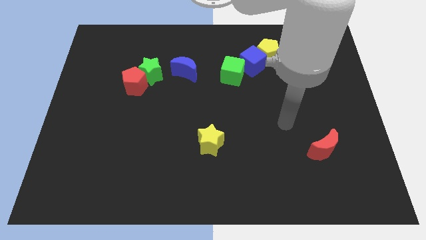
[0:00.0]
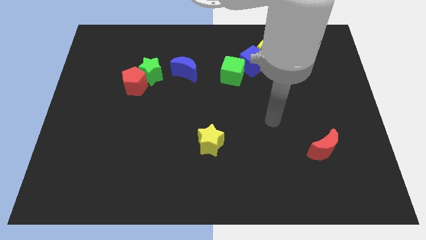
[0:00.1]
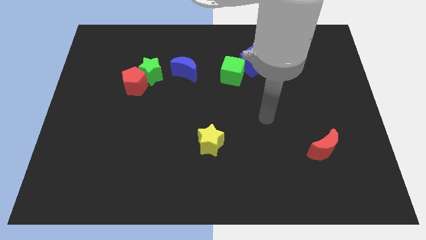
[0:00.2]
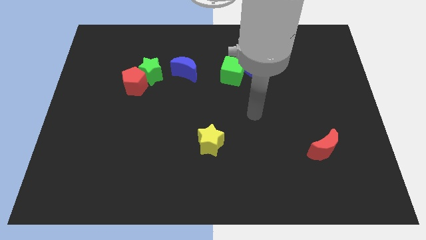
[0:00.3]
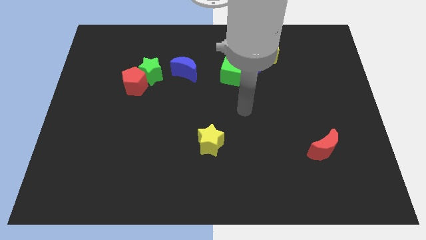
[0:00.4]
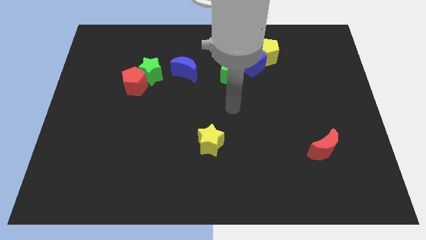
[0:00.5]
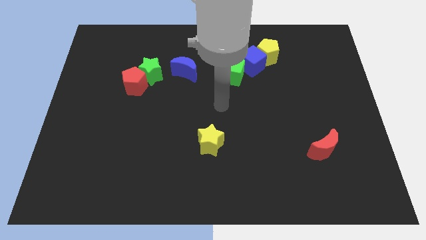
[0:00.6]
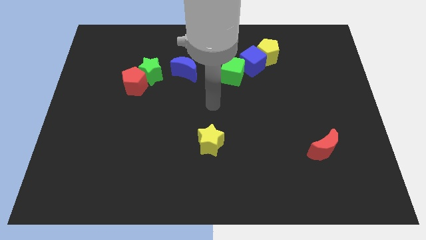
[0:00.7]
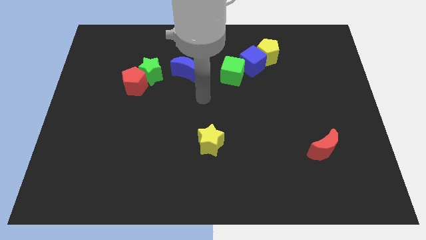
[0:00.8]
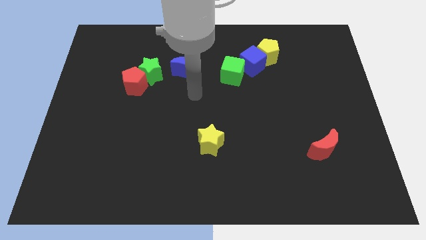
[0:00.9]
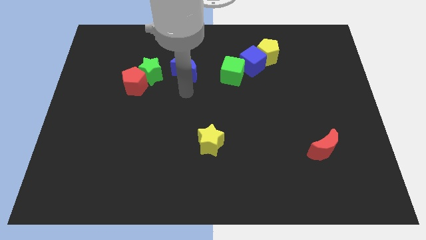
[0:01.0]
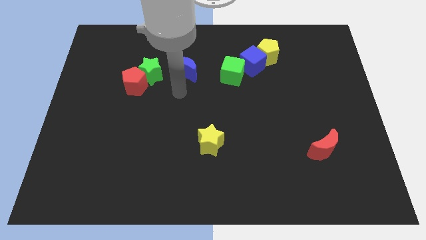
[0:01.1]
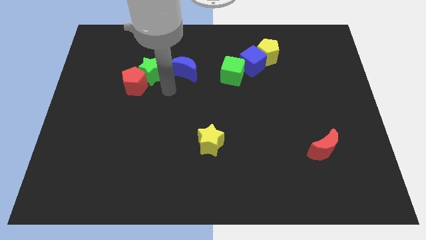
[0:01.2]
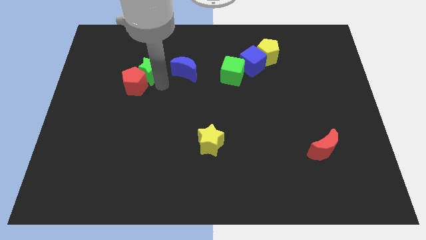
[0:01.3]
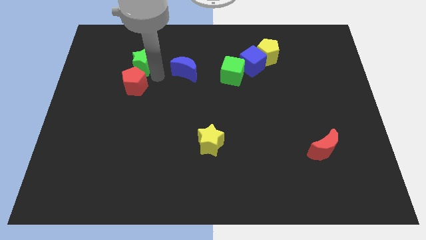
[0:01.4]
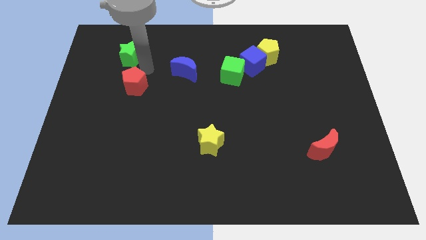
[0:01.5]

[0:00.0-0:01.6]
move the red pentagon away from the green star

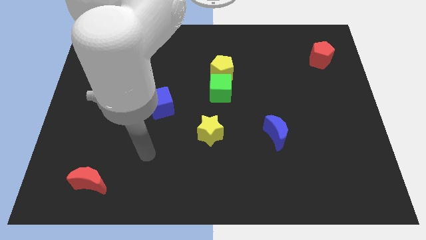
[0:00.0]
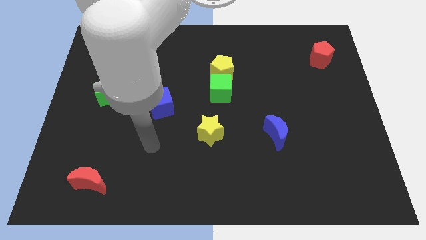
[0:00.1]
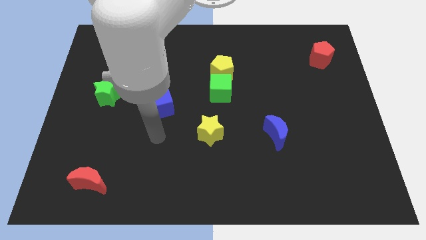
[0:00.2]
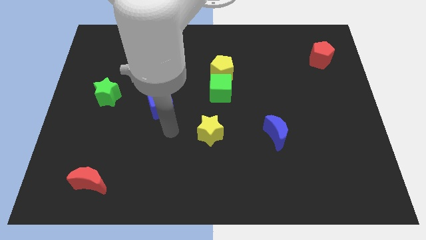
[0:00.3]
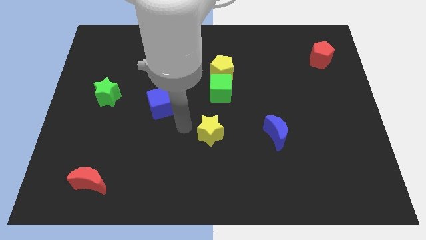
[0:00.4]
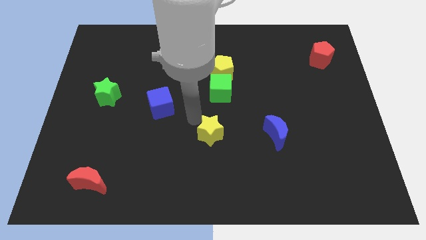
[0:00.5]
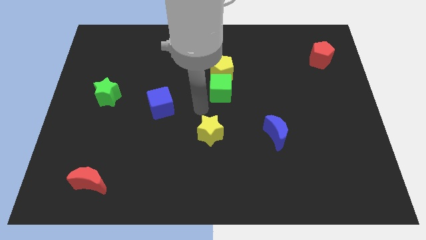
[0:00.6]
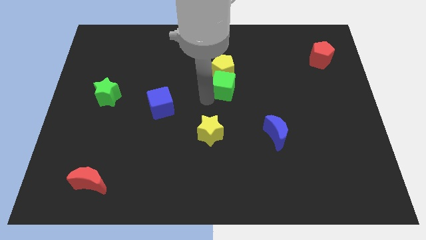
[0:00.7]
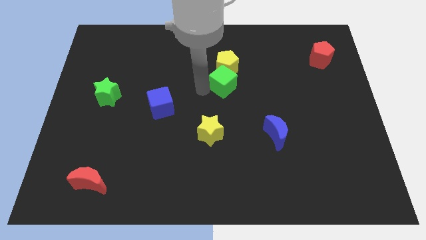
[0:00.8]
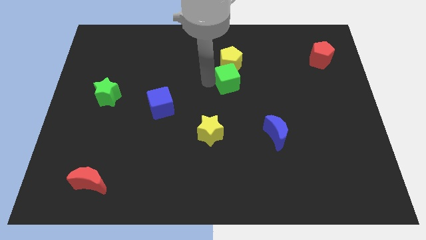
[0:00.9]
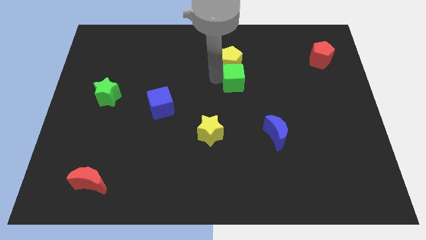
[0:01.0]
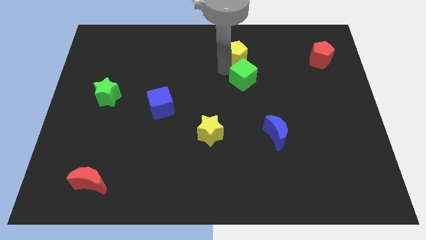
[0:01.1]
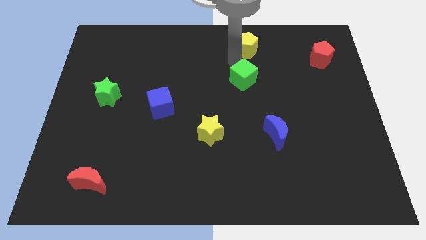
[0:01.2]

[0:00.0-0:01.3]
pull the green cube apart from the yellow pentagon

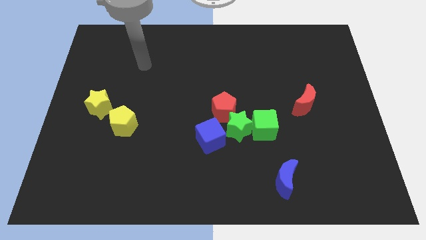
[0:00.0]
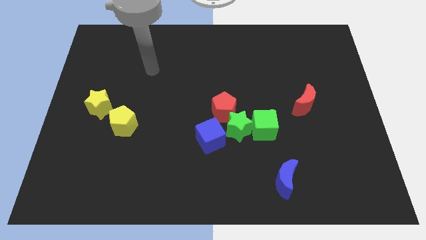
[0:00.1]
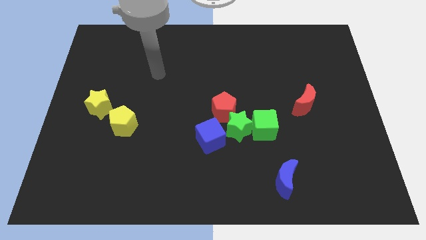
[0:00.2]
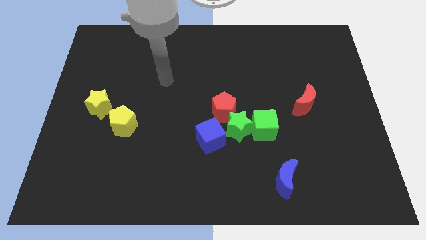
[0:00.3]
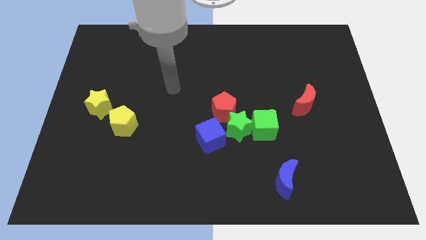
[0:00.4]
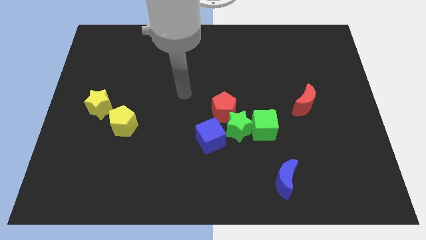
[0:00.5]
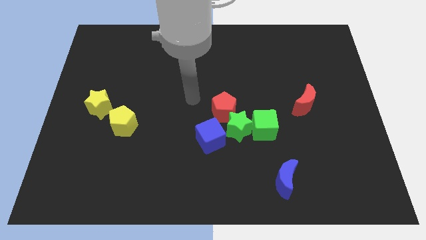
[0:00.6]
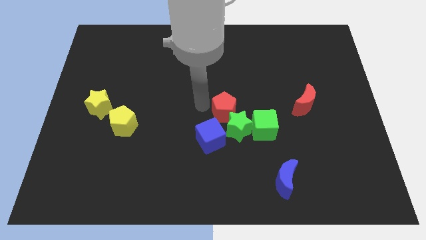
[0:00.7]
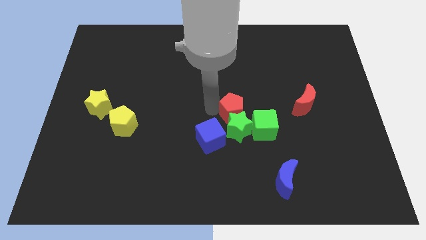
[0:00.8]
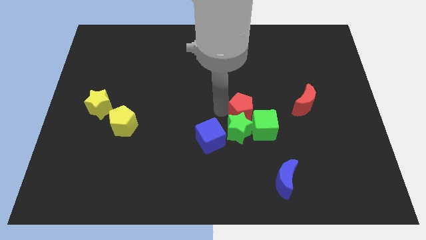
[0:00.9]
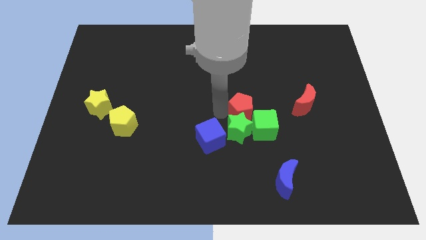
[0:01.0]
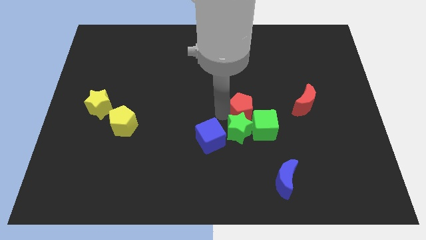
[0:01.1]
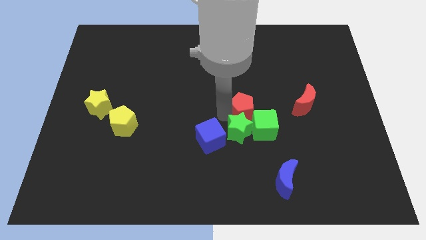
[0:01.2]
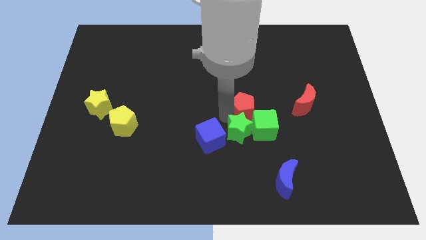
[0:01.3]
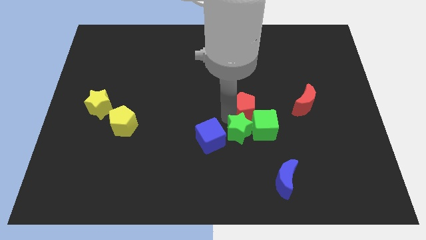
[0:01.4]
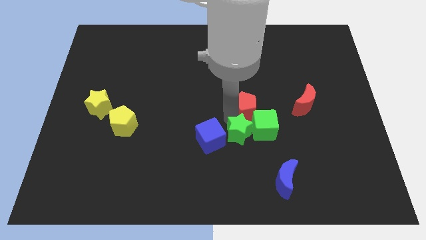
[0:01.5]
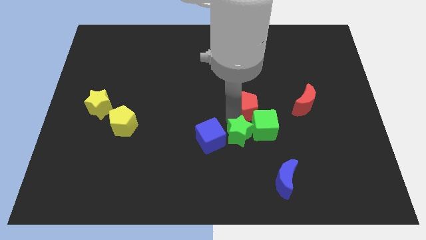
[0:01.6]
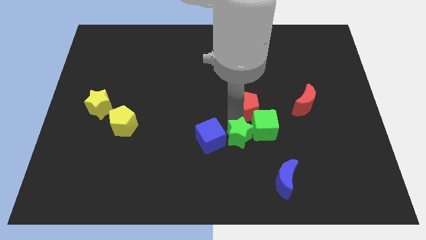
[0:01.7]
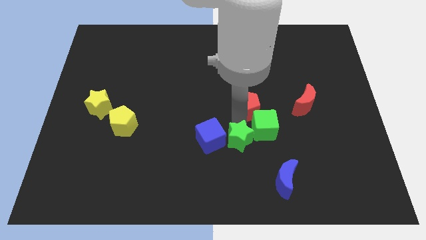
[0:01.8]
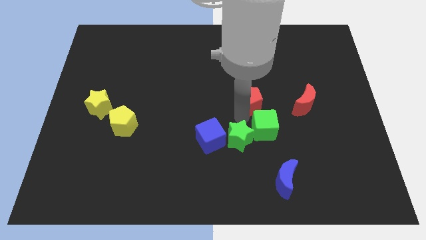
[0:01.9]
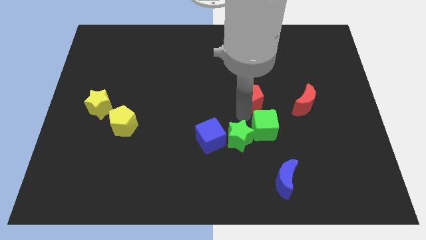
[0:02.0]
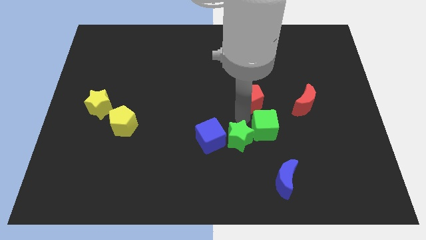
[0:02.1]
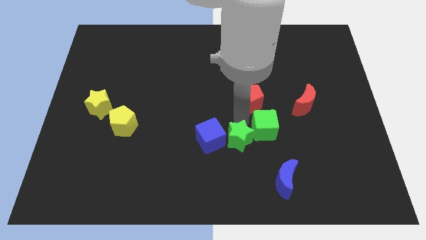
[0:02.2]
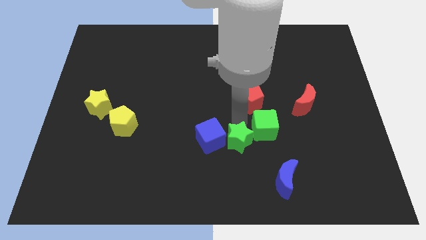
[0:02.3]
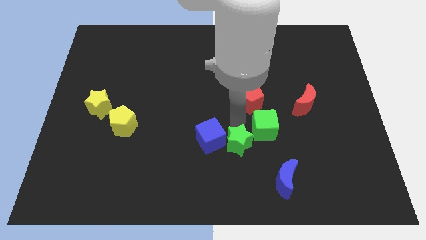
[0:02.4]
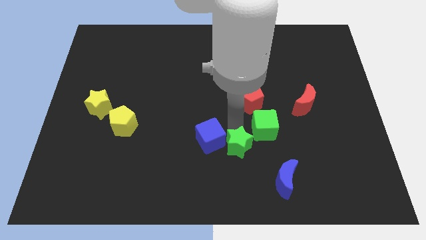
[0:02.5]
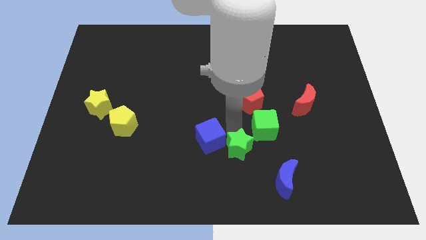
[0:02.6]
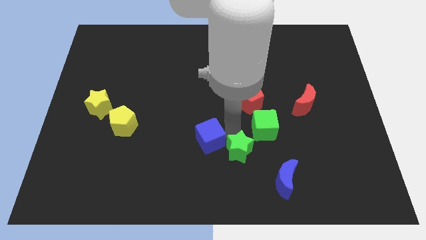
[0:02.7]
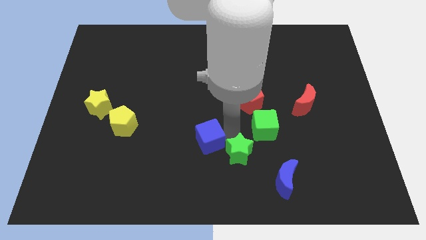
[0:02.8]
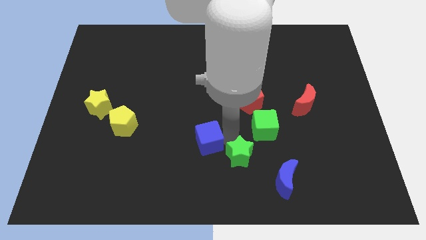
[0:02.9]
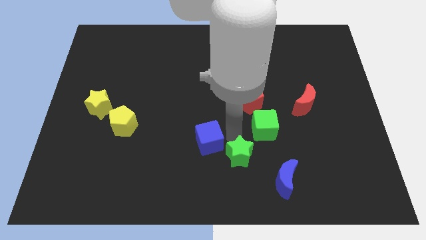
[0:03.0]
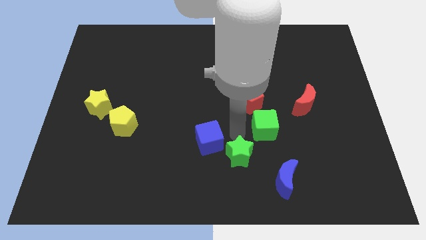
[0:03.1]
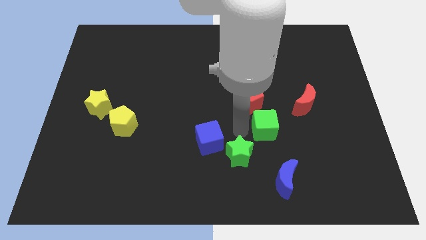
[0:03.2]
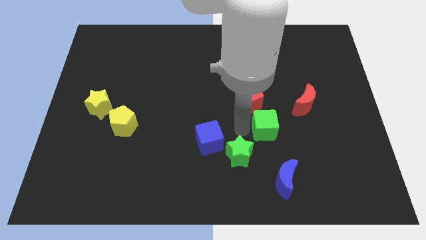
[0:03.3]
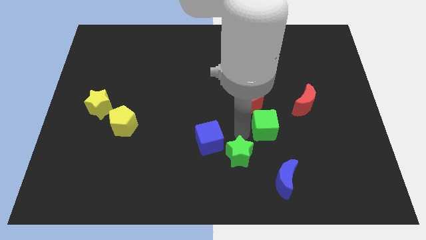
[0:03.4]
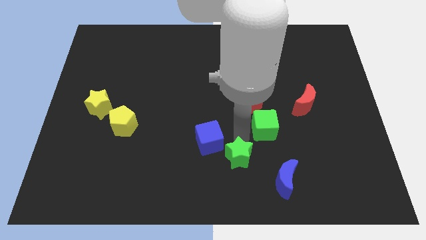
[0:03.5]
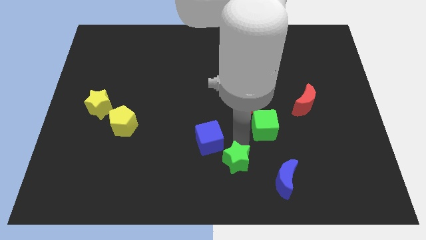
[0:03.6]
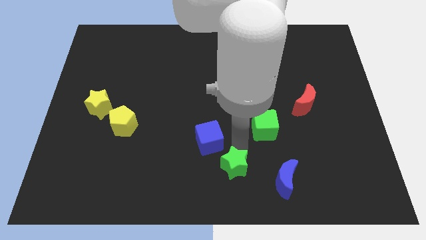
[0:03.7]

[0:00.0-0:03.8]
move the green star away from the group

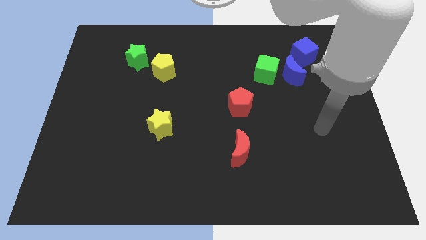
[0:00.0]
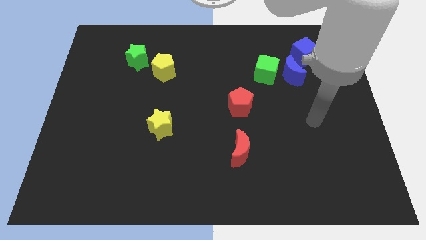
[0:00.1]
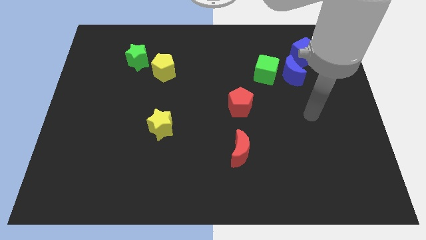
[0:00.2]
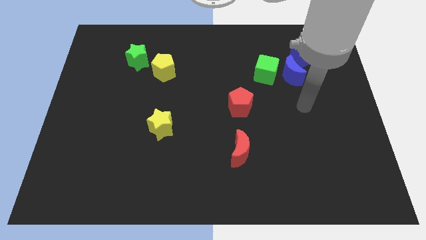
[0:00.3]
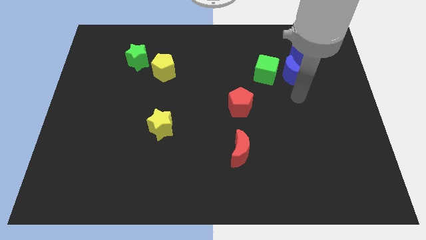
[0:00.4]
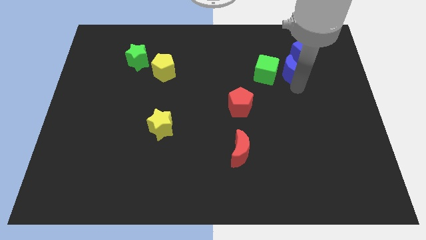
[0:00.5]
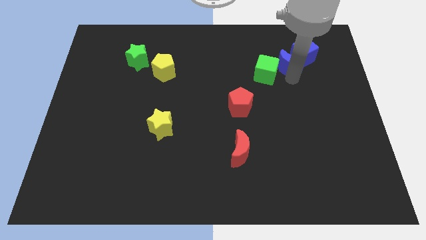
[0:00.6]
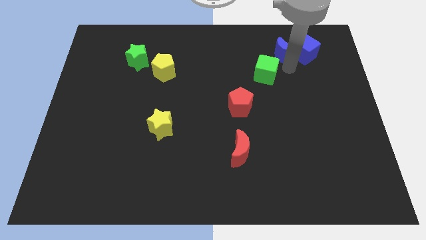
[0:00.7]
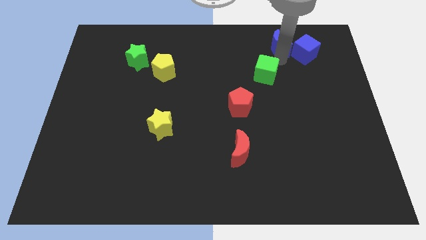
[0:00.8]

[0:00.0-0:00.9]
separate the green cube from the blue moon

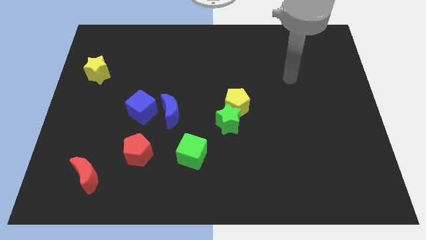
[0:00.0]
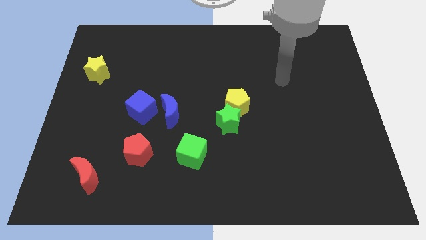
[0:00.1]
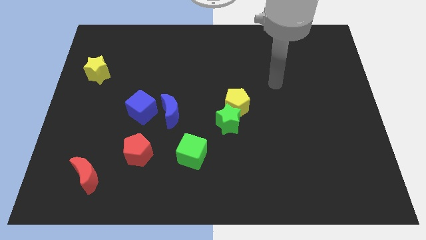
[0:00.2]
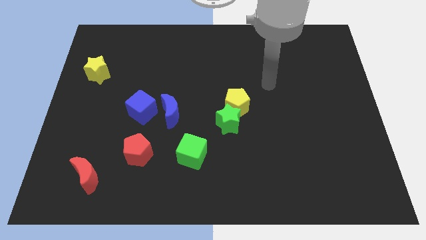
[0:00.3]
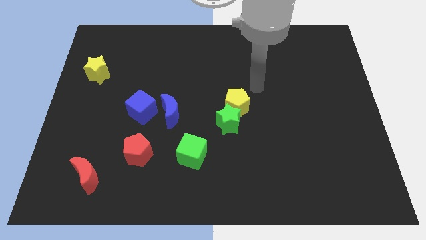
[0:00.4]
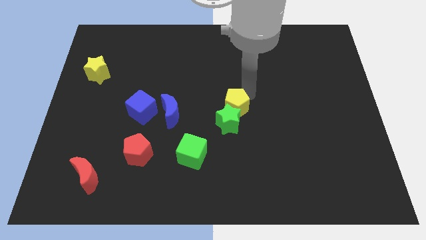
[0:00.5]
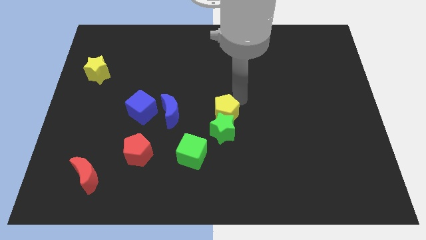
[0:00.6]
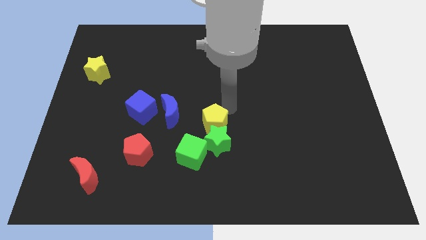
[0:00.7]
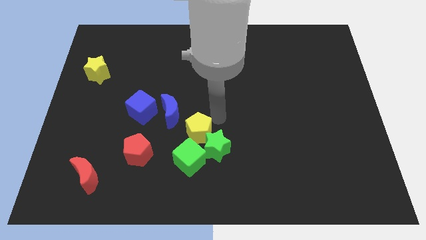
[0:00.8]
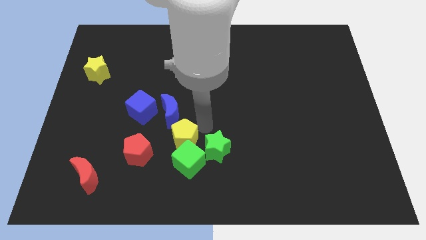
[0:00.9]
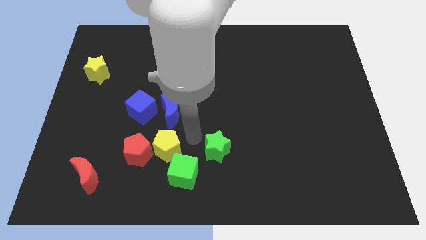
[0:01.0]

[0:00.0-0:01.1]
separate the green star from the yellow pentagon

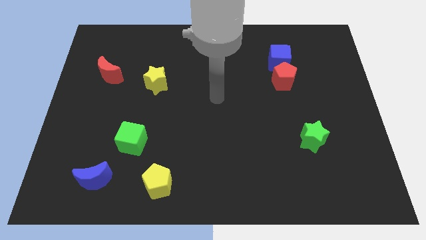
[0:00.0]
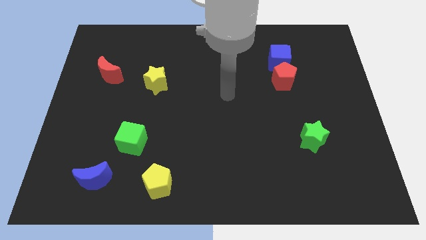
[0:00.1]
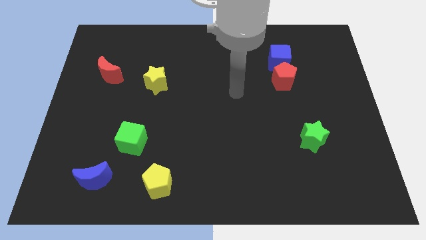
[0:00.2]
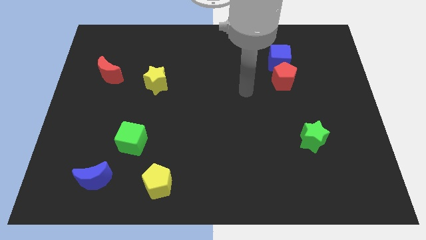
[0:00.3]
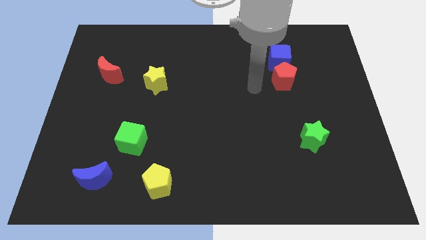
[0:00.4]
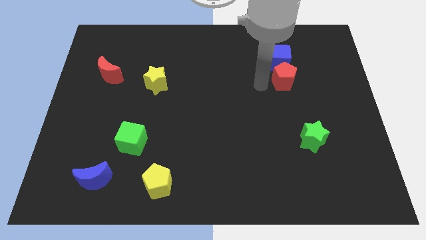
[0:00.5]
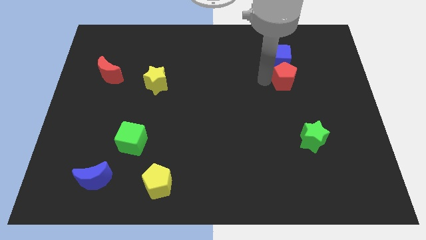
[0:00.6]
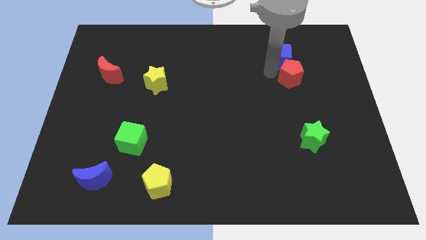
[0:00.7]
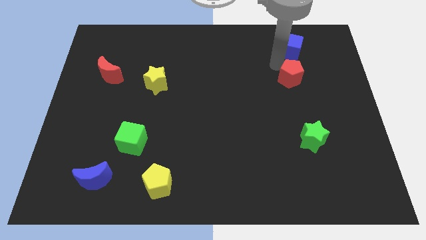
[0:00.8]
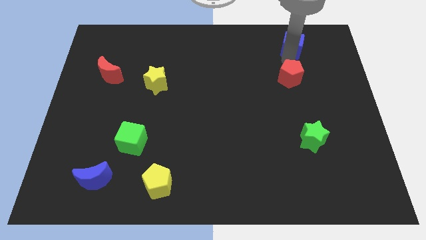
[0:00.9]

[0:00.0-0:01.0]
separate the red pentagon from the blue cube
